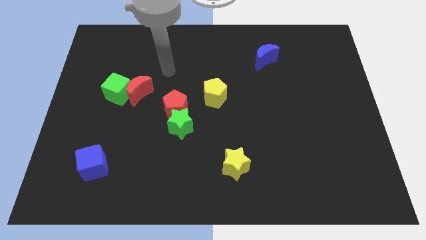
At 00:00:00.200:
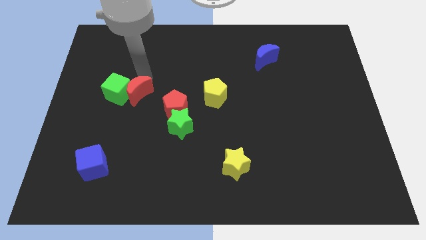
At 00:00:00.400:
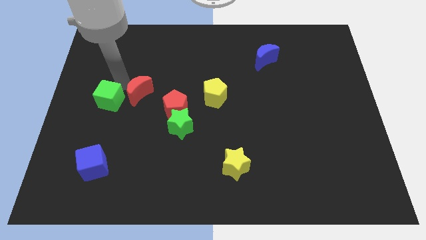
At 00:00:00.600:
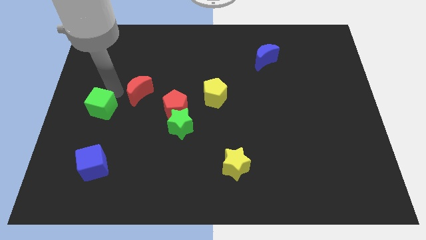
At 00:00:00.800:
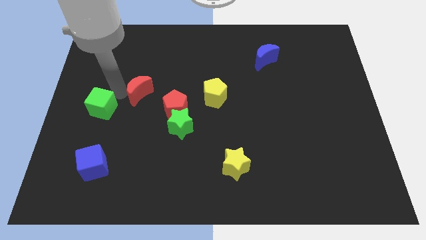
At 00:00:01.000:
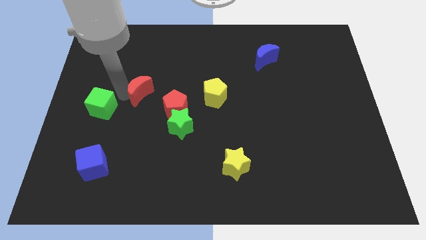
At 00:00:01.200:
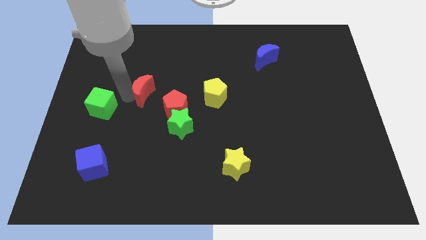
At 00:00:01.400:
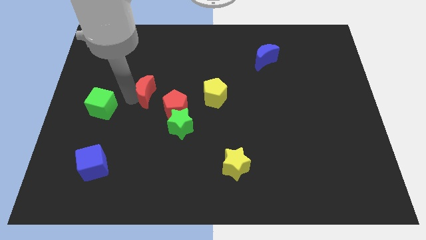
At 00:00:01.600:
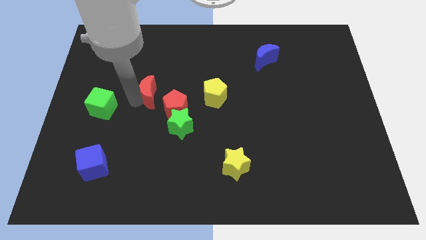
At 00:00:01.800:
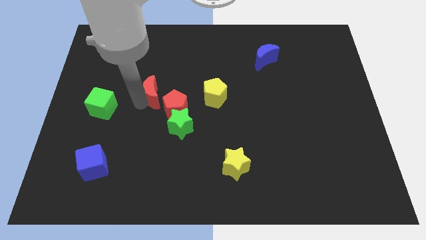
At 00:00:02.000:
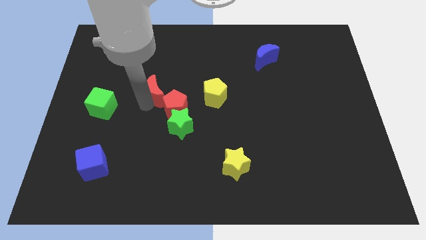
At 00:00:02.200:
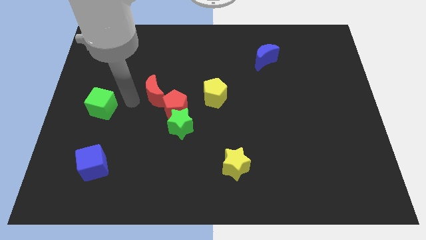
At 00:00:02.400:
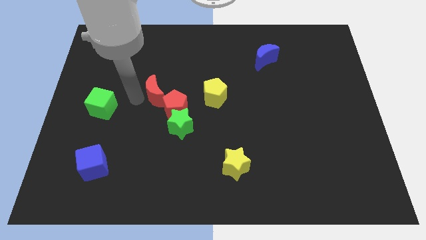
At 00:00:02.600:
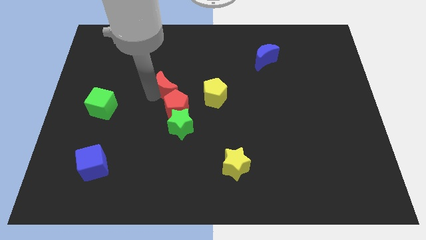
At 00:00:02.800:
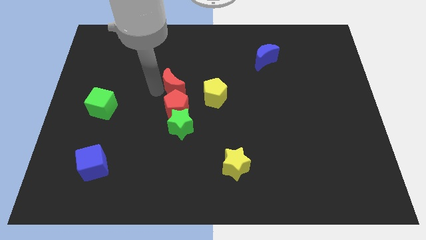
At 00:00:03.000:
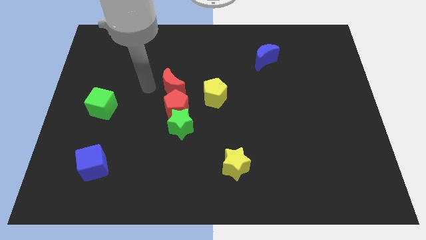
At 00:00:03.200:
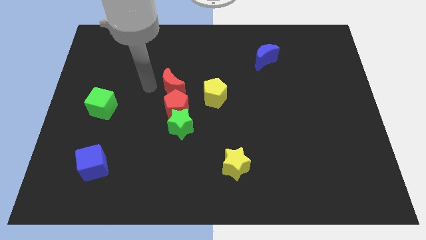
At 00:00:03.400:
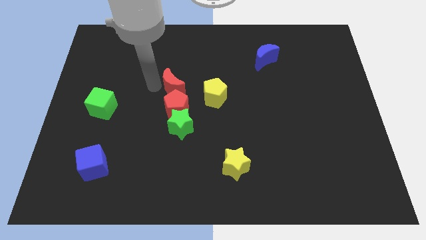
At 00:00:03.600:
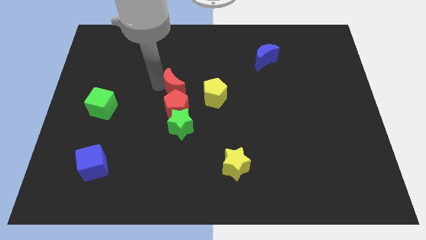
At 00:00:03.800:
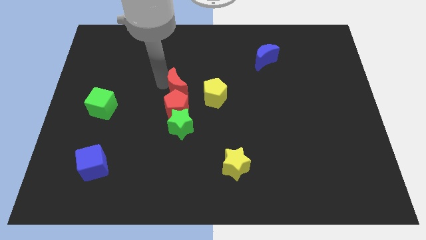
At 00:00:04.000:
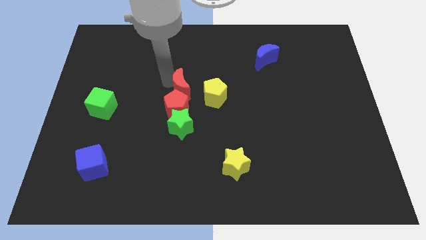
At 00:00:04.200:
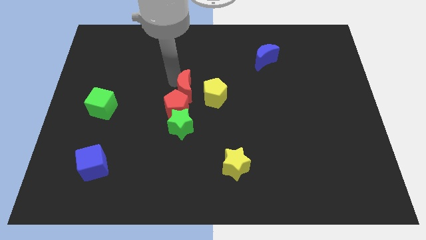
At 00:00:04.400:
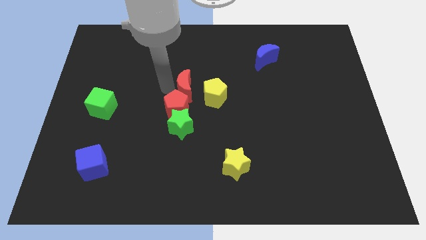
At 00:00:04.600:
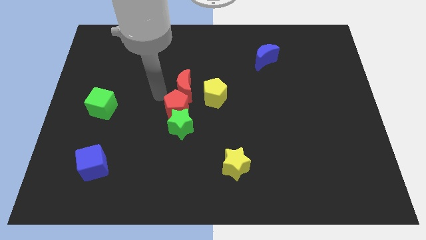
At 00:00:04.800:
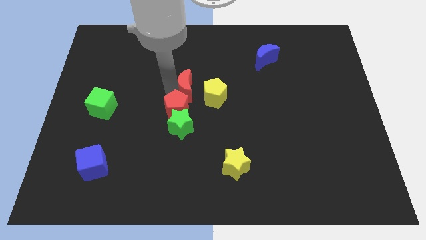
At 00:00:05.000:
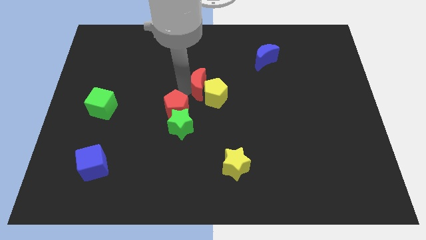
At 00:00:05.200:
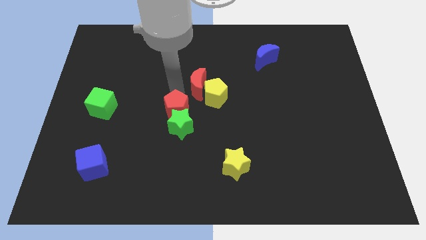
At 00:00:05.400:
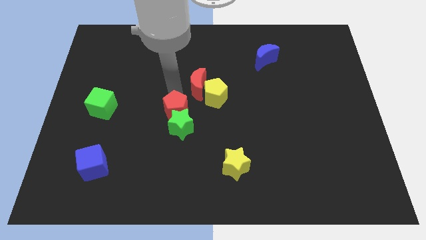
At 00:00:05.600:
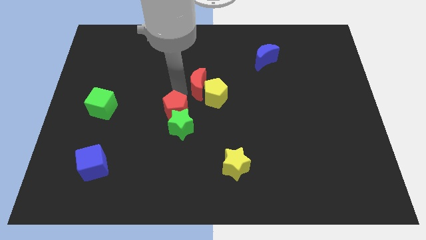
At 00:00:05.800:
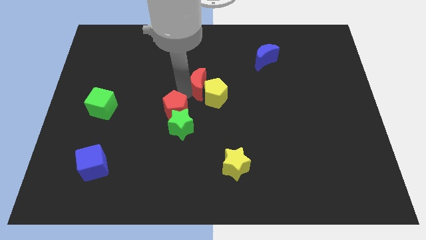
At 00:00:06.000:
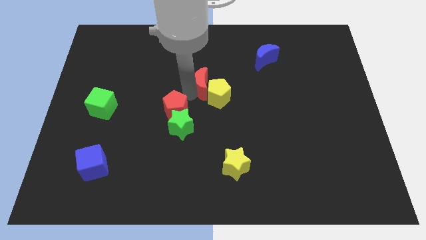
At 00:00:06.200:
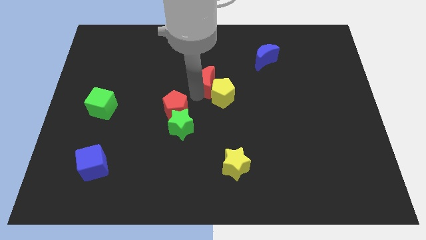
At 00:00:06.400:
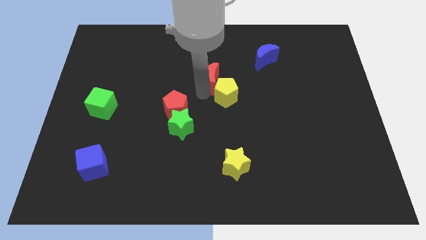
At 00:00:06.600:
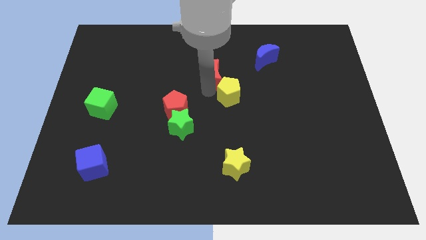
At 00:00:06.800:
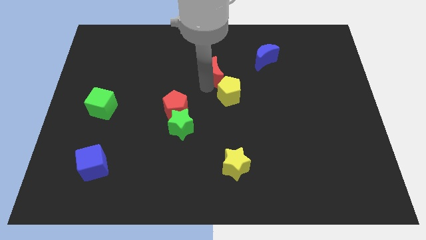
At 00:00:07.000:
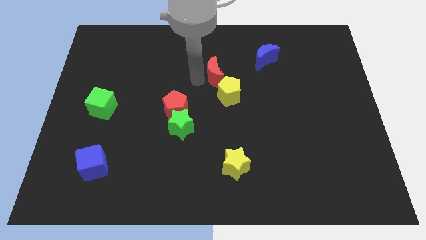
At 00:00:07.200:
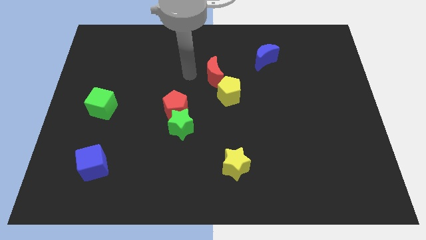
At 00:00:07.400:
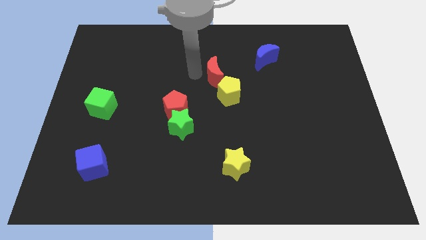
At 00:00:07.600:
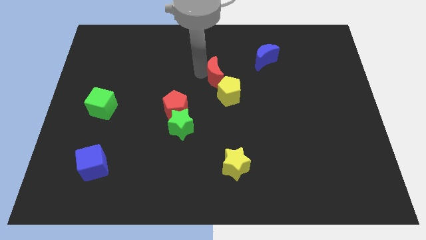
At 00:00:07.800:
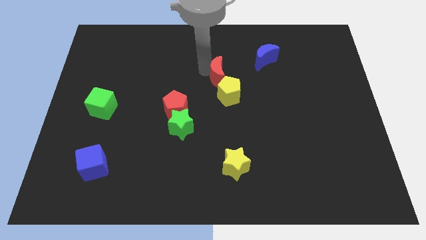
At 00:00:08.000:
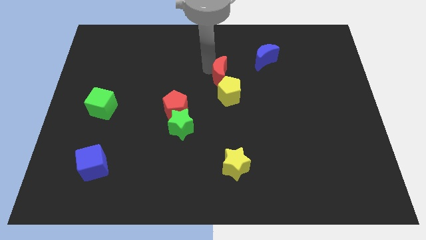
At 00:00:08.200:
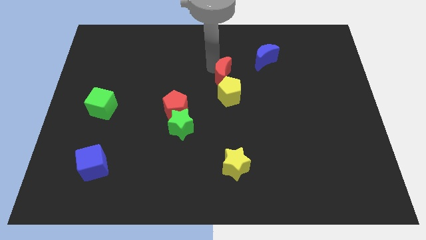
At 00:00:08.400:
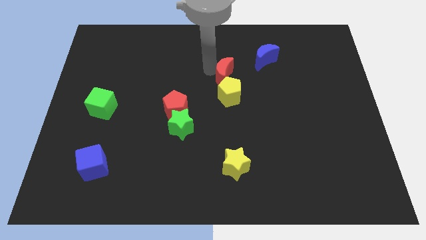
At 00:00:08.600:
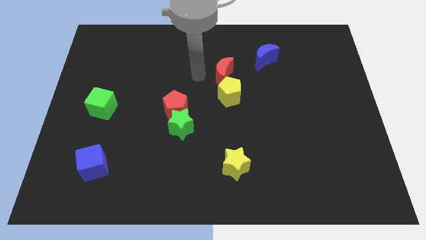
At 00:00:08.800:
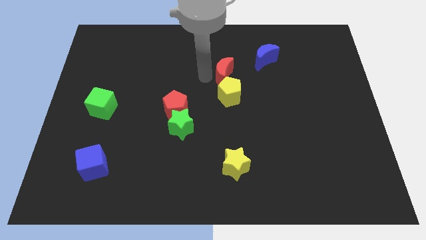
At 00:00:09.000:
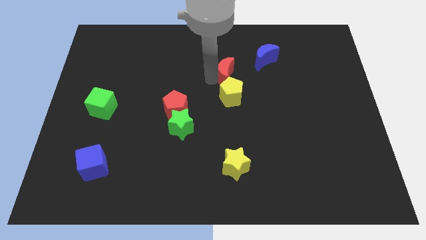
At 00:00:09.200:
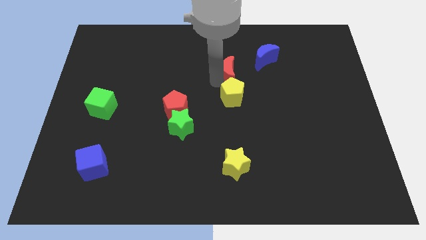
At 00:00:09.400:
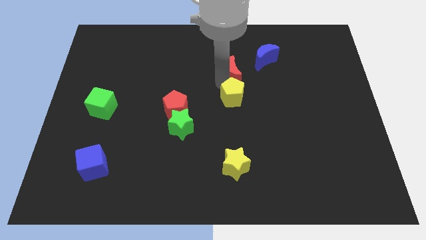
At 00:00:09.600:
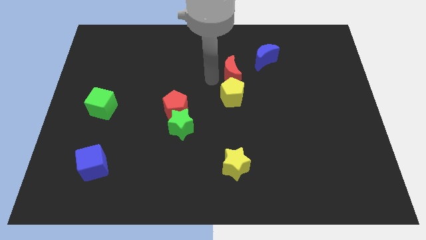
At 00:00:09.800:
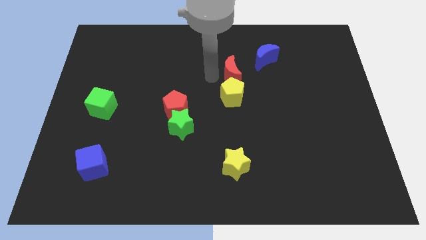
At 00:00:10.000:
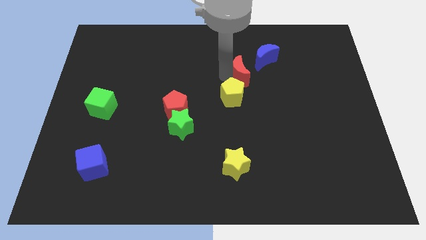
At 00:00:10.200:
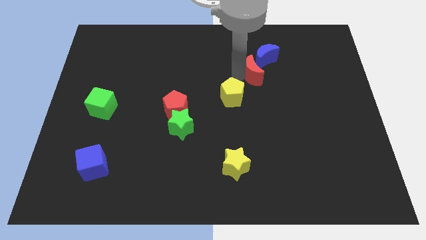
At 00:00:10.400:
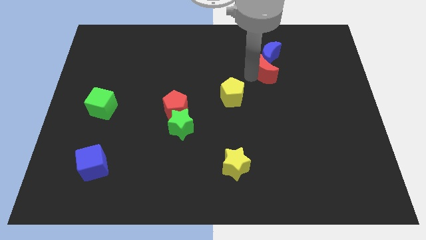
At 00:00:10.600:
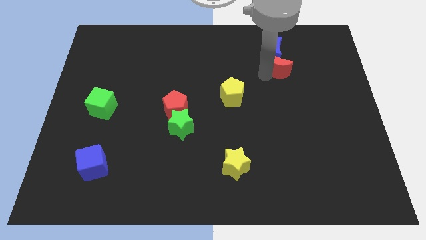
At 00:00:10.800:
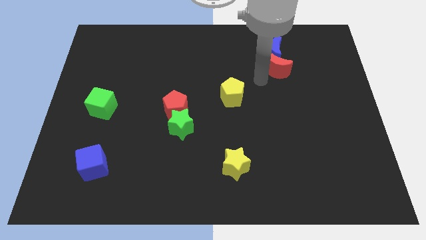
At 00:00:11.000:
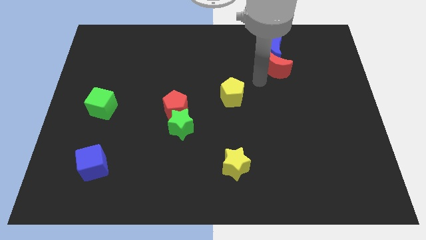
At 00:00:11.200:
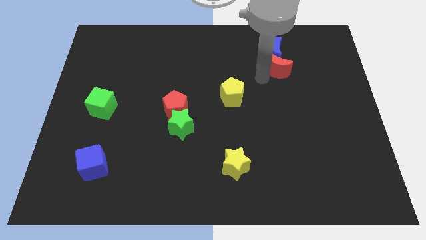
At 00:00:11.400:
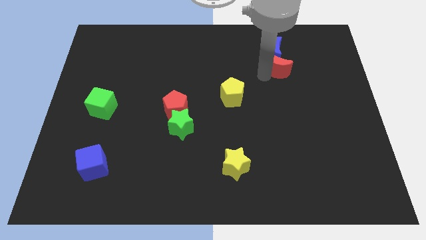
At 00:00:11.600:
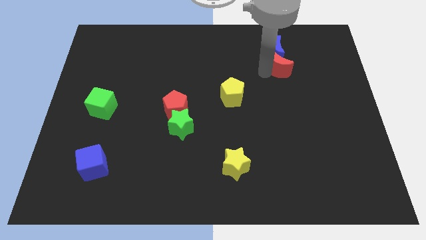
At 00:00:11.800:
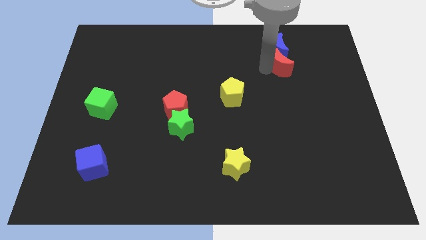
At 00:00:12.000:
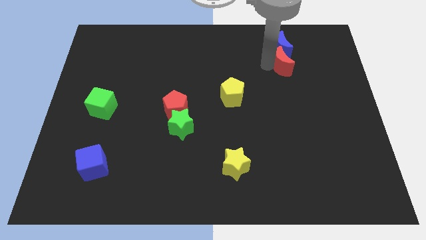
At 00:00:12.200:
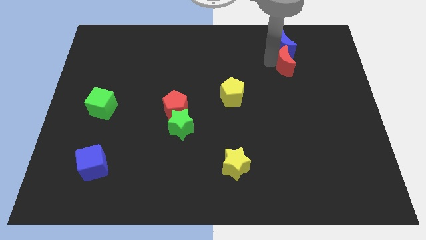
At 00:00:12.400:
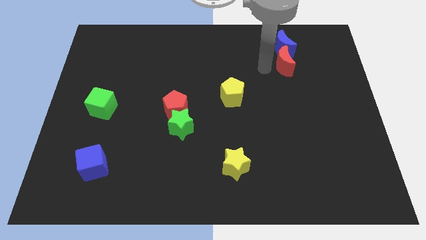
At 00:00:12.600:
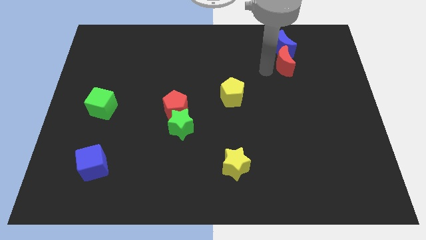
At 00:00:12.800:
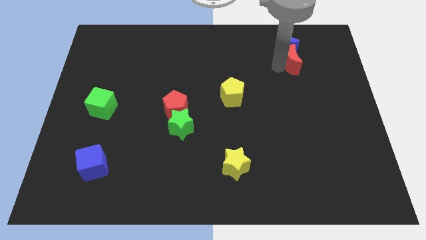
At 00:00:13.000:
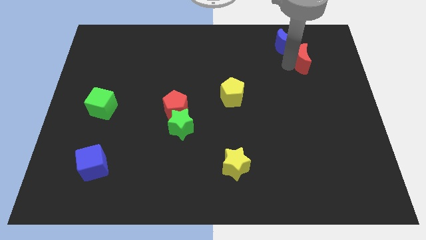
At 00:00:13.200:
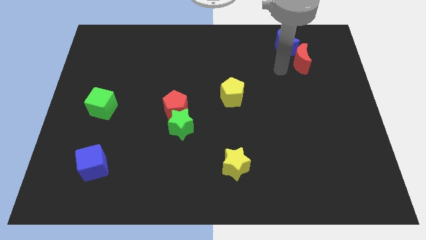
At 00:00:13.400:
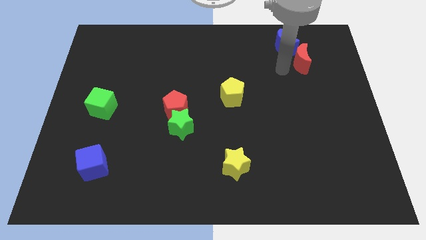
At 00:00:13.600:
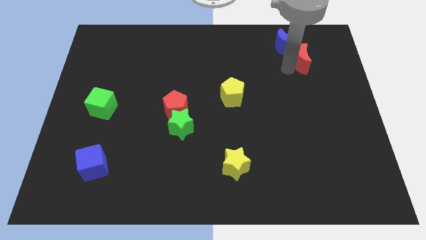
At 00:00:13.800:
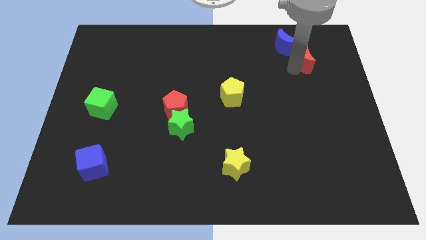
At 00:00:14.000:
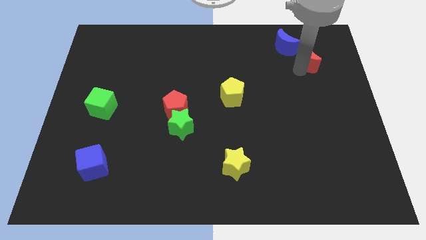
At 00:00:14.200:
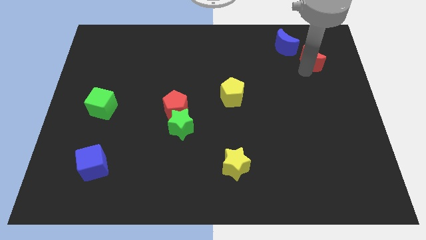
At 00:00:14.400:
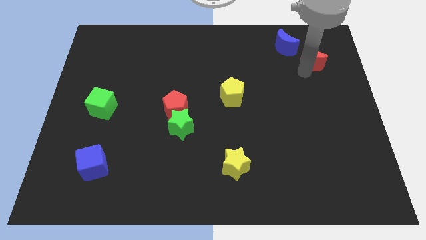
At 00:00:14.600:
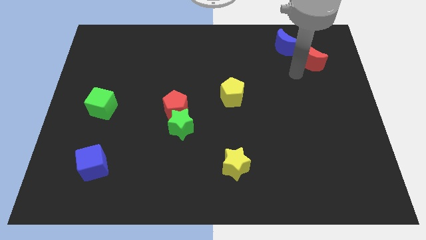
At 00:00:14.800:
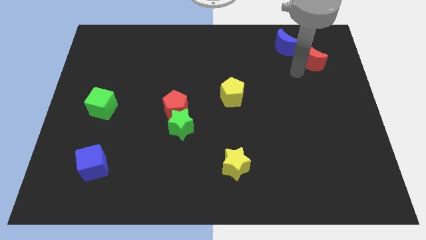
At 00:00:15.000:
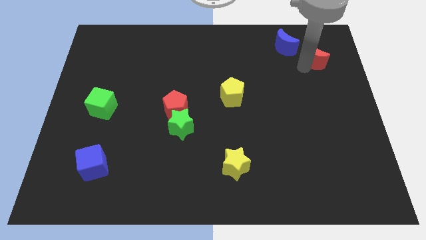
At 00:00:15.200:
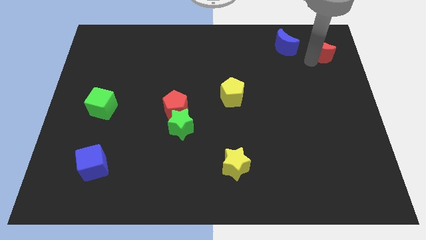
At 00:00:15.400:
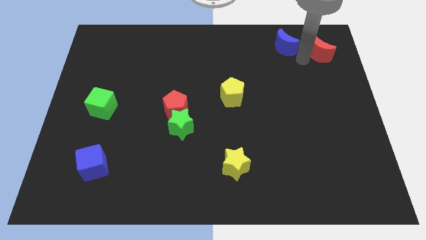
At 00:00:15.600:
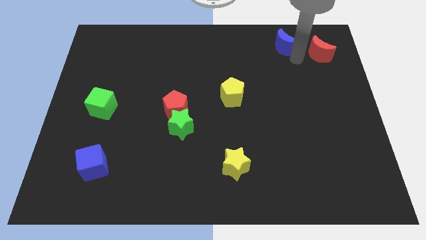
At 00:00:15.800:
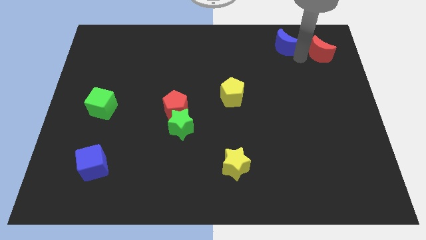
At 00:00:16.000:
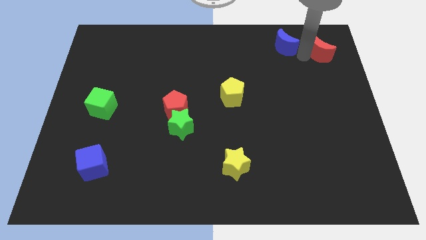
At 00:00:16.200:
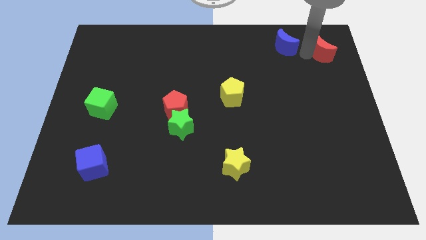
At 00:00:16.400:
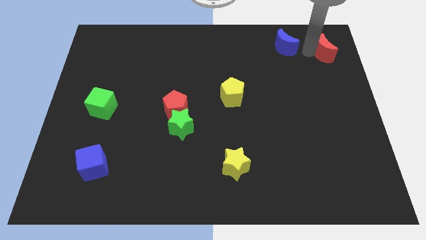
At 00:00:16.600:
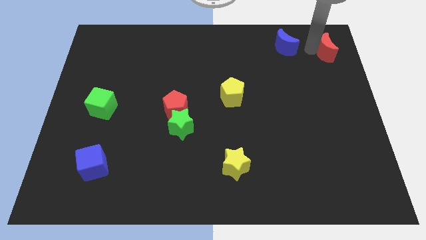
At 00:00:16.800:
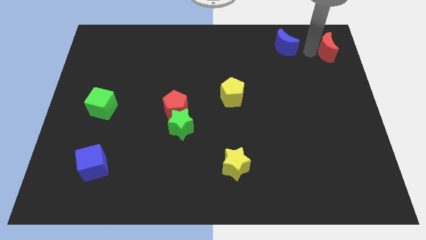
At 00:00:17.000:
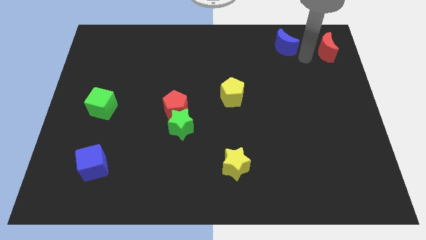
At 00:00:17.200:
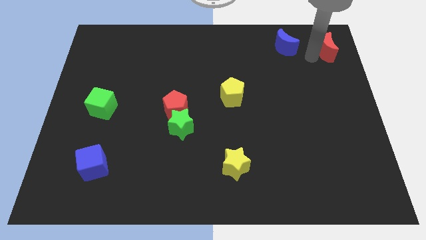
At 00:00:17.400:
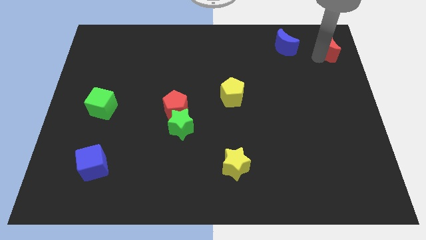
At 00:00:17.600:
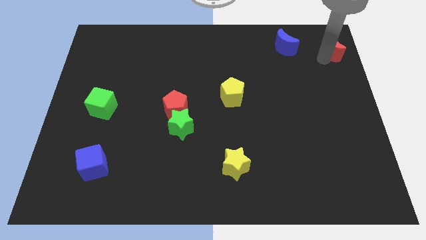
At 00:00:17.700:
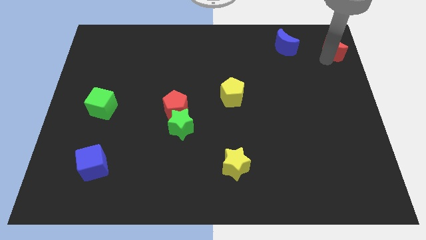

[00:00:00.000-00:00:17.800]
slide the red moon to the top right
